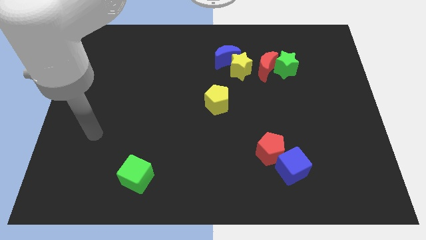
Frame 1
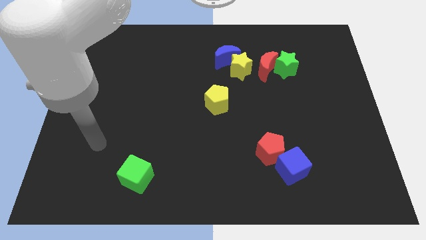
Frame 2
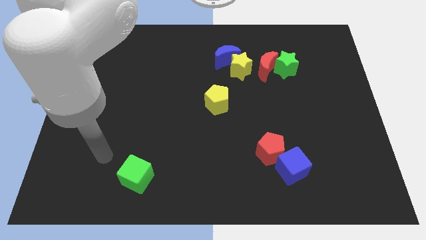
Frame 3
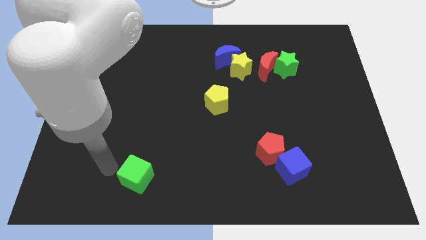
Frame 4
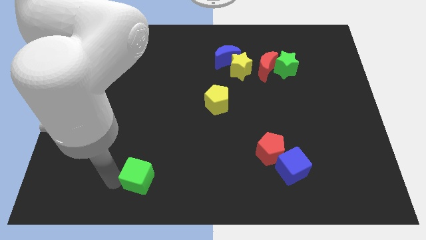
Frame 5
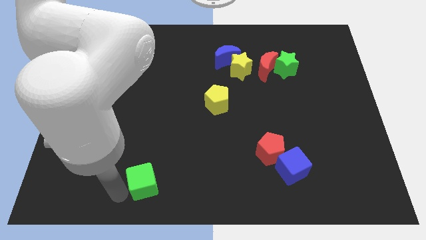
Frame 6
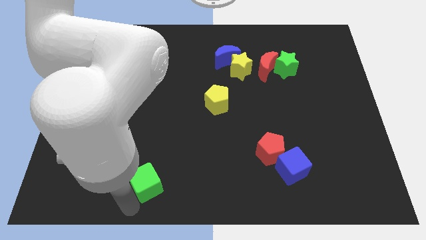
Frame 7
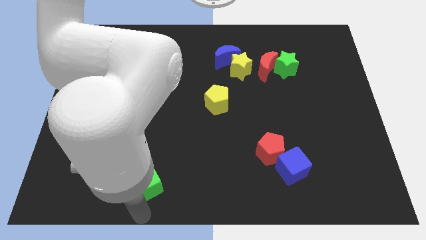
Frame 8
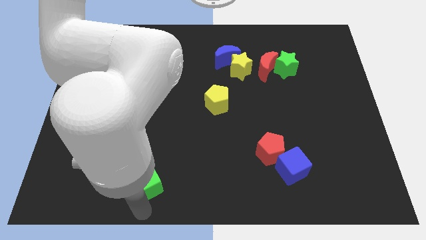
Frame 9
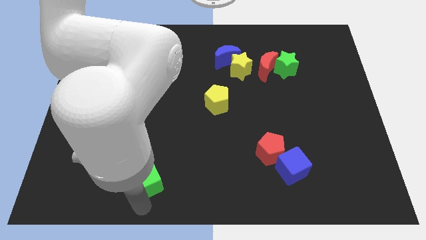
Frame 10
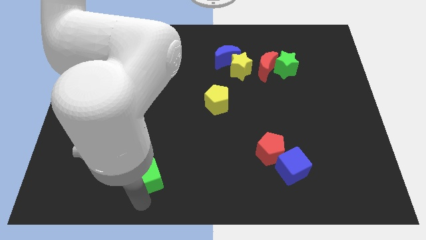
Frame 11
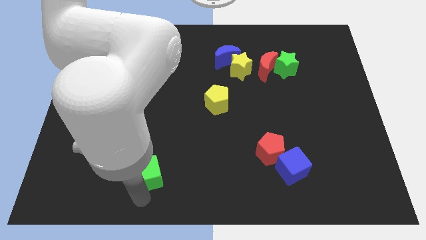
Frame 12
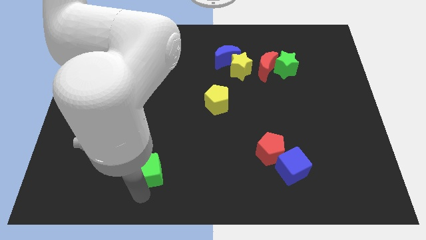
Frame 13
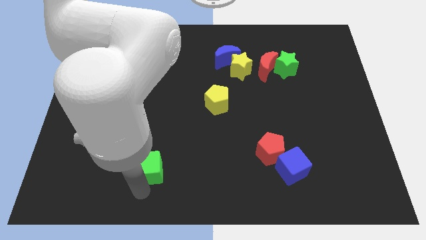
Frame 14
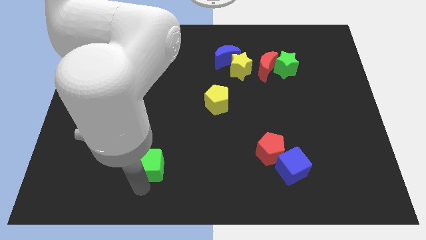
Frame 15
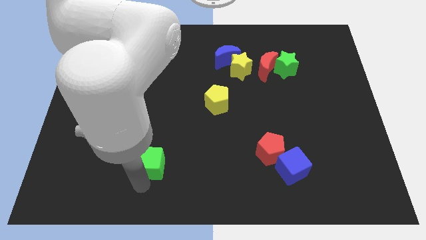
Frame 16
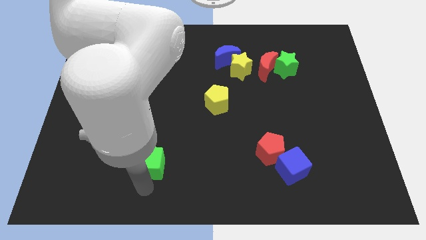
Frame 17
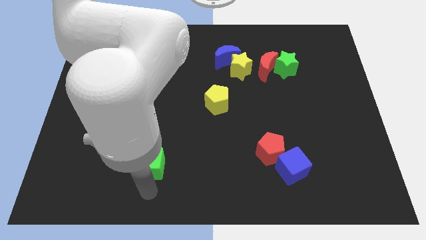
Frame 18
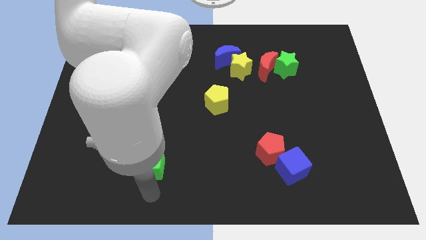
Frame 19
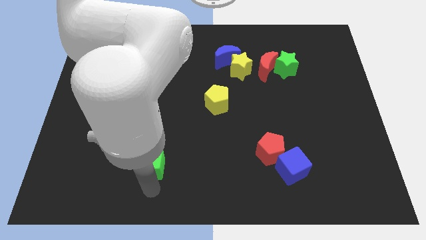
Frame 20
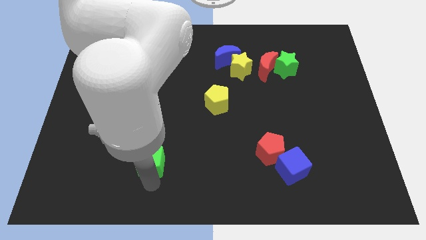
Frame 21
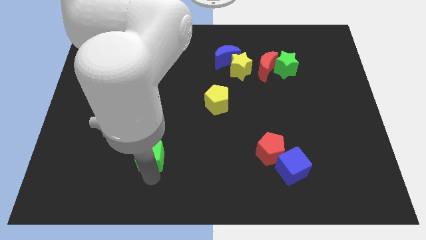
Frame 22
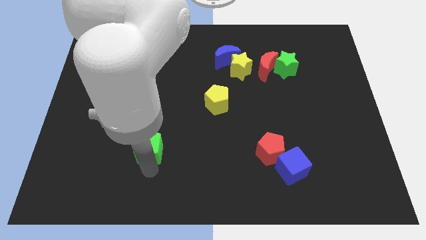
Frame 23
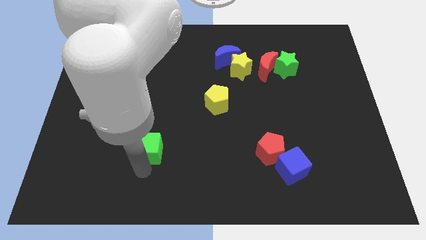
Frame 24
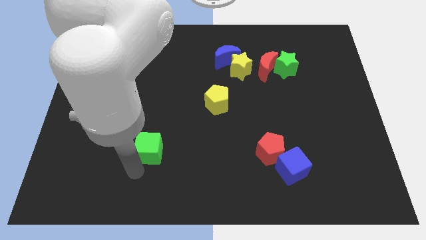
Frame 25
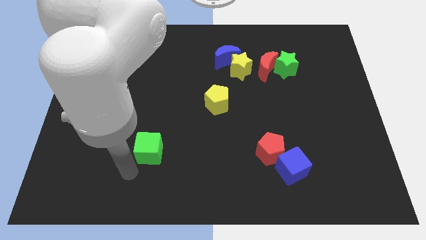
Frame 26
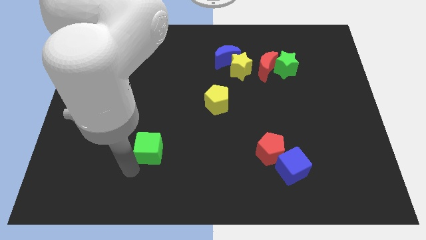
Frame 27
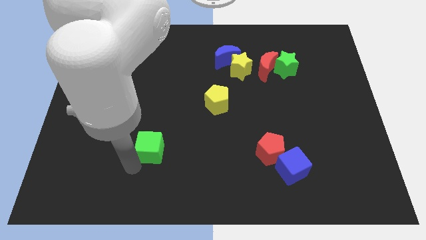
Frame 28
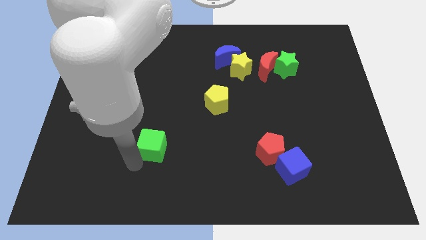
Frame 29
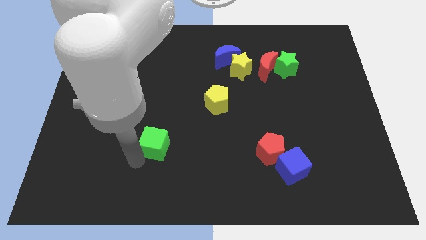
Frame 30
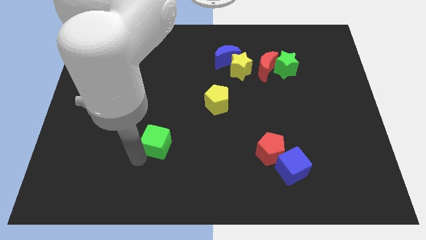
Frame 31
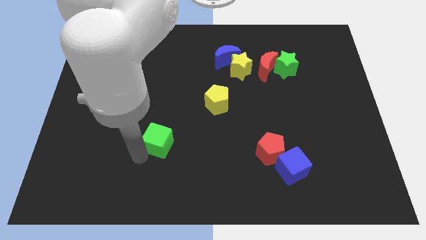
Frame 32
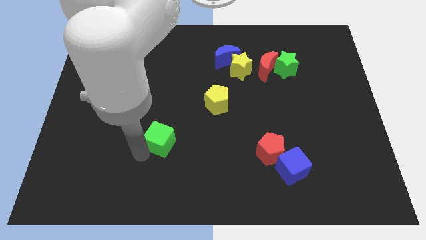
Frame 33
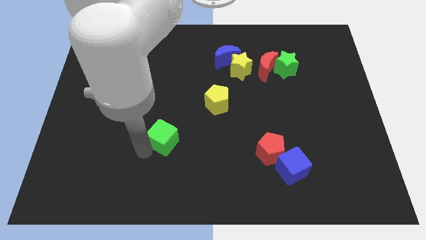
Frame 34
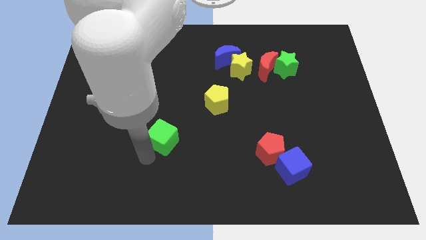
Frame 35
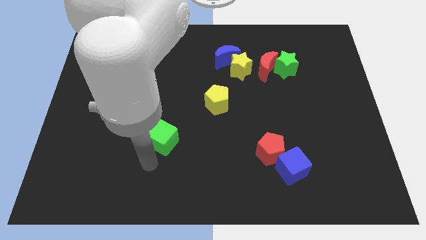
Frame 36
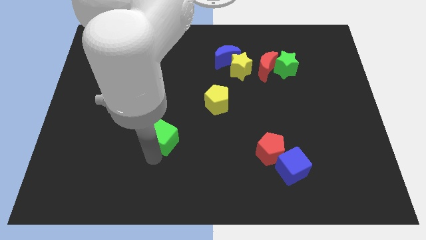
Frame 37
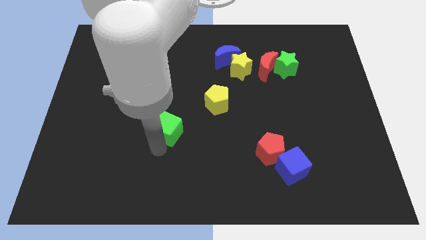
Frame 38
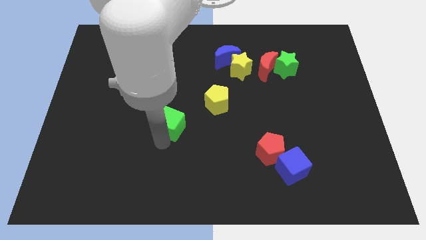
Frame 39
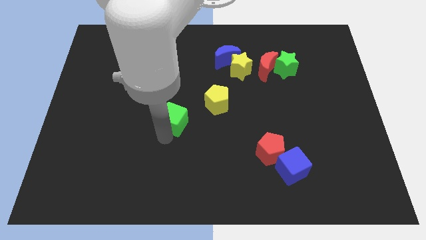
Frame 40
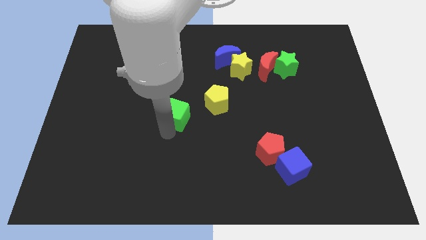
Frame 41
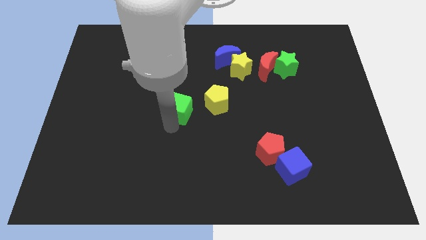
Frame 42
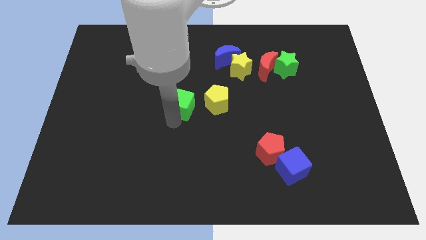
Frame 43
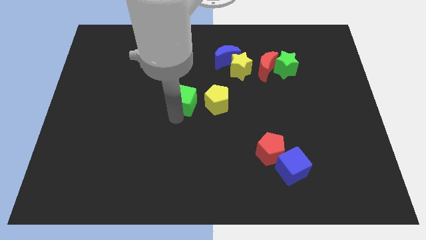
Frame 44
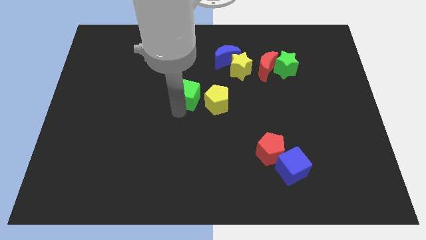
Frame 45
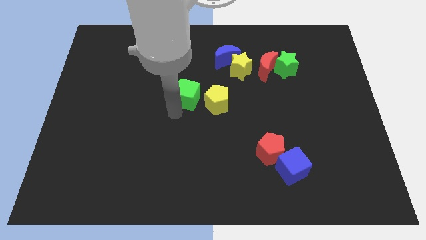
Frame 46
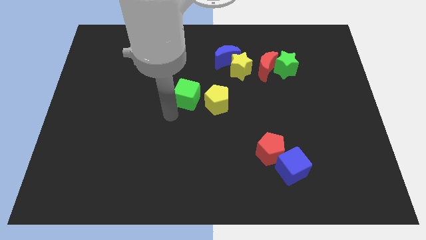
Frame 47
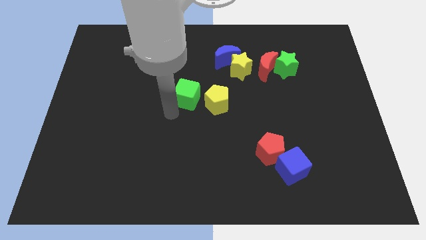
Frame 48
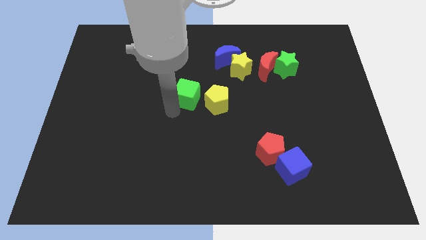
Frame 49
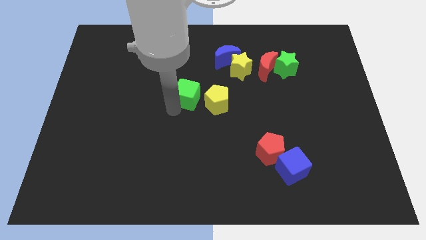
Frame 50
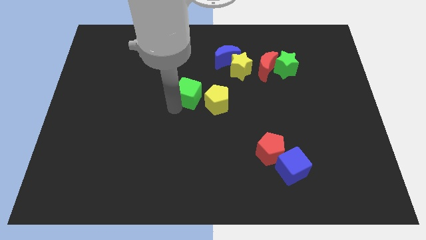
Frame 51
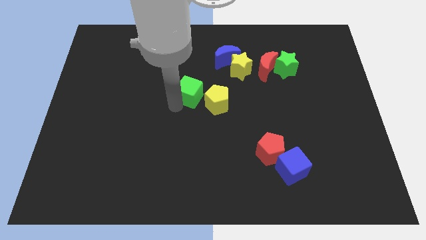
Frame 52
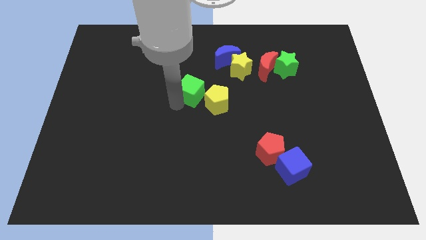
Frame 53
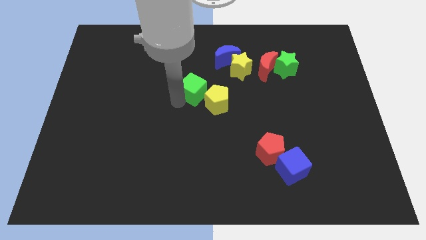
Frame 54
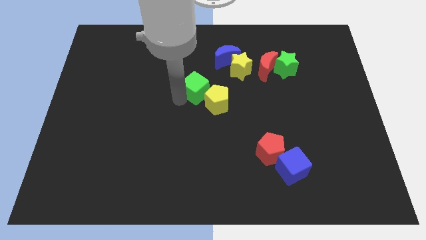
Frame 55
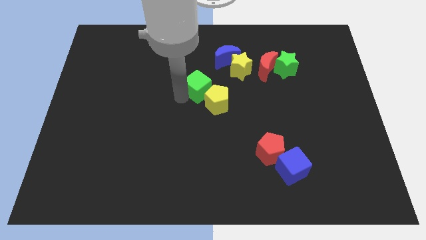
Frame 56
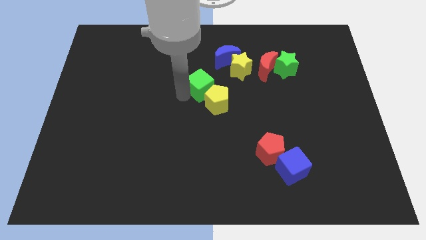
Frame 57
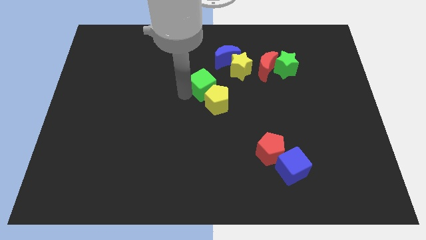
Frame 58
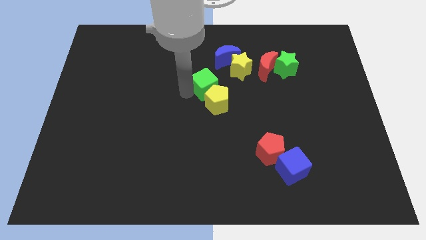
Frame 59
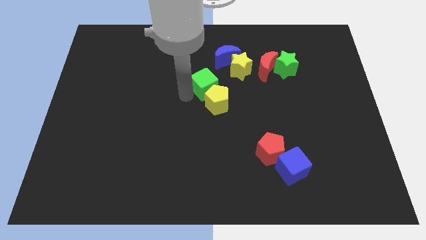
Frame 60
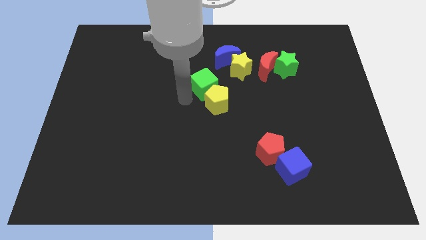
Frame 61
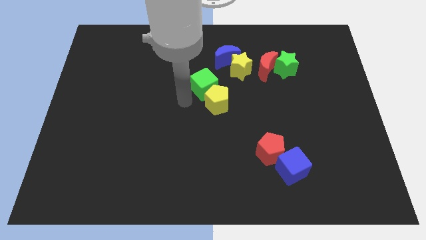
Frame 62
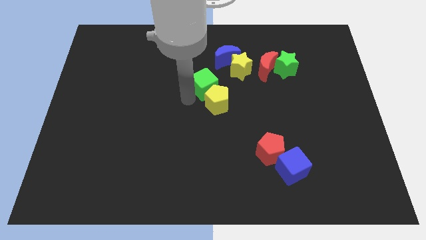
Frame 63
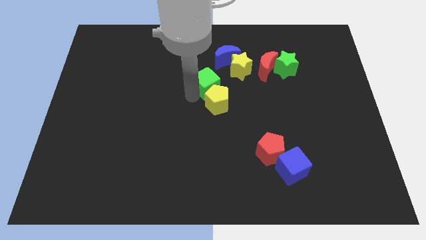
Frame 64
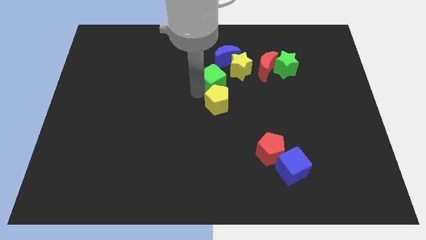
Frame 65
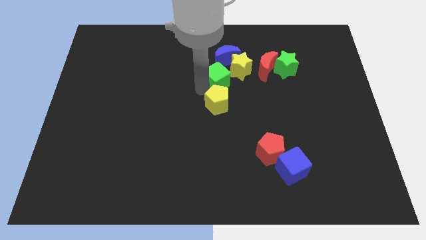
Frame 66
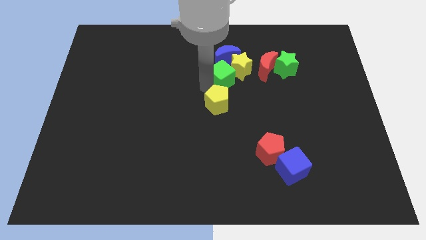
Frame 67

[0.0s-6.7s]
move the green cube towards the yellow star

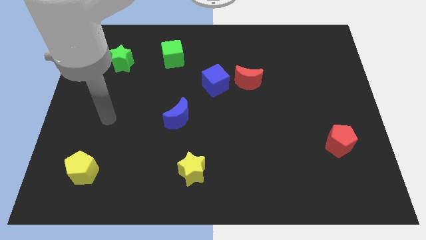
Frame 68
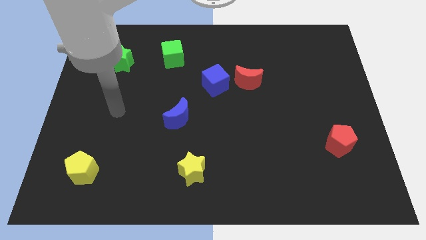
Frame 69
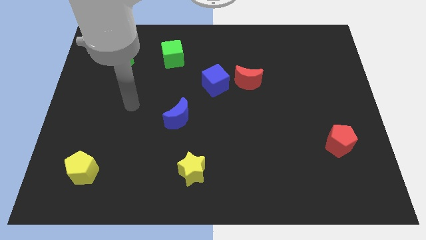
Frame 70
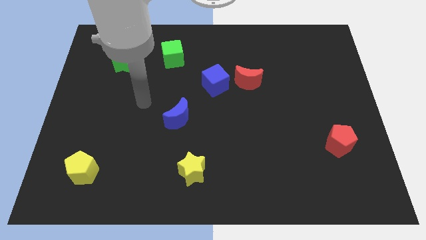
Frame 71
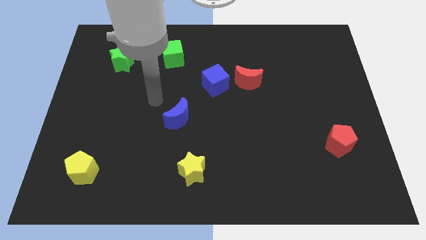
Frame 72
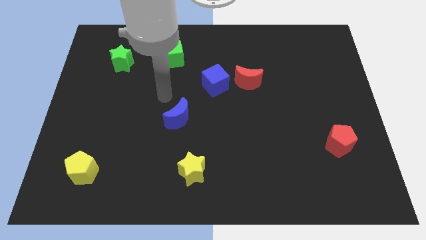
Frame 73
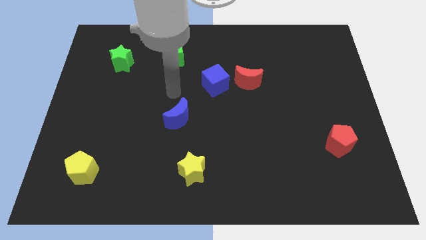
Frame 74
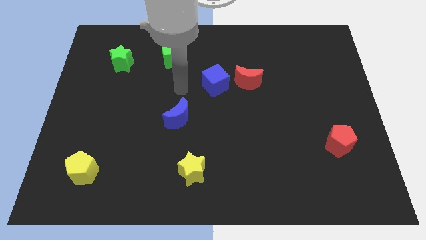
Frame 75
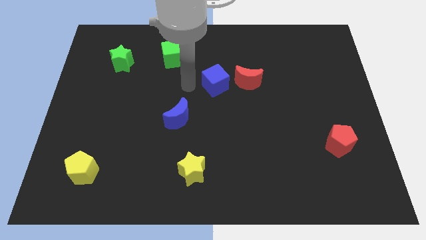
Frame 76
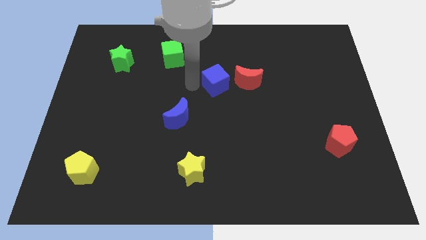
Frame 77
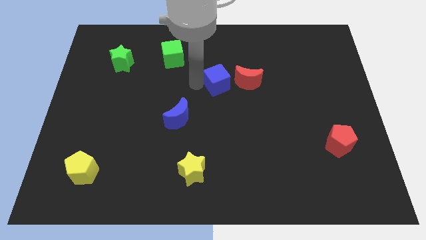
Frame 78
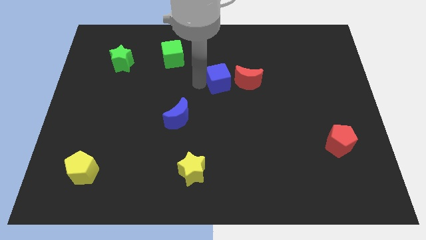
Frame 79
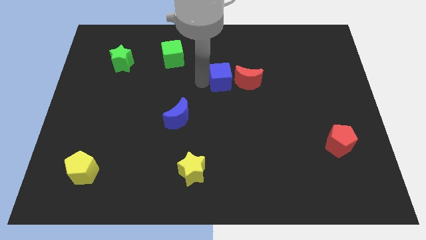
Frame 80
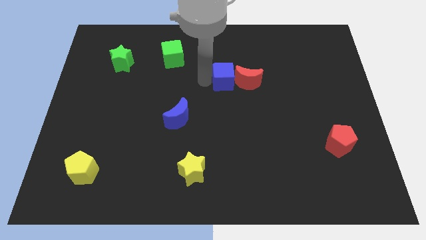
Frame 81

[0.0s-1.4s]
put the blue cube close to the red moon

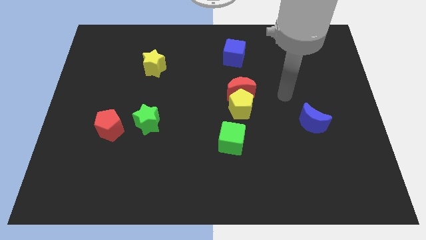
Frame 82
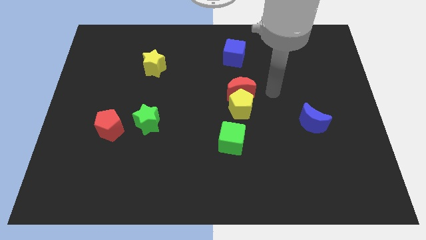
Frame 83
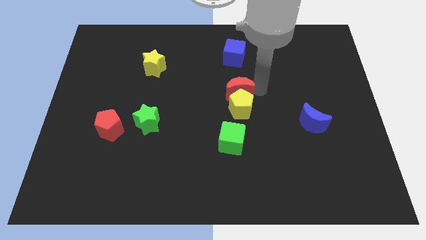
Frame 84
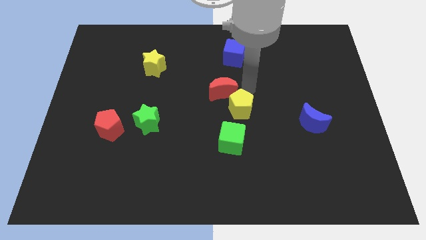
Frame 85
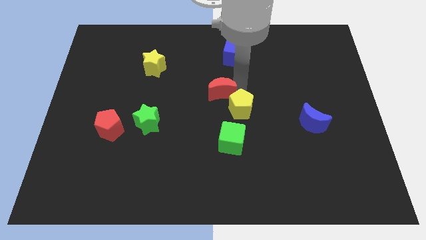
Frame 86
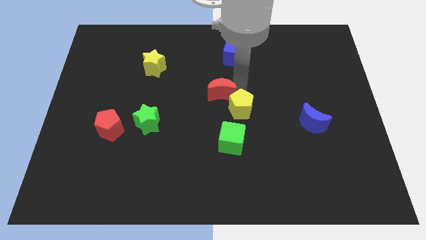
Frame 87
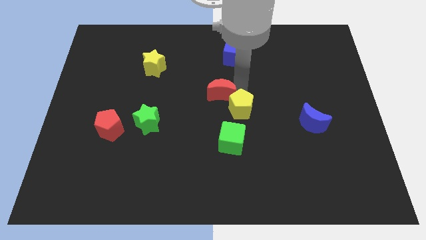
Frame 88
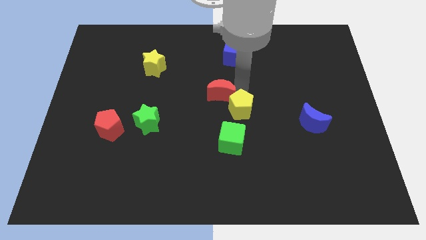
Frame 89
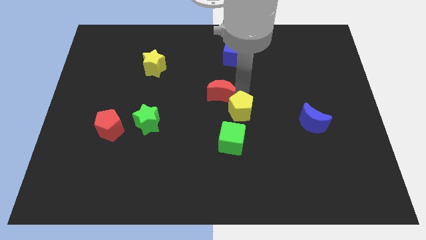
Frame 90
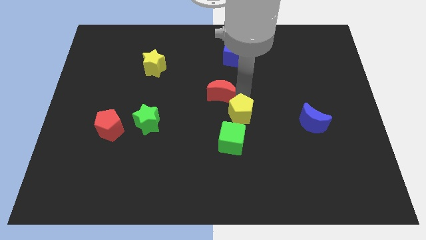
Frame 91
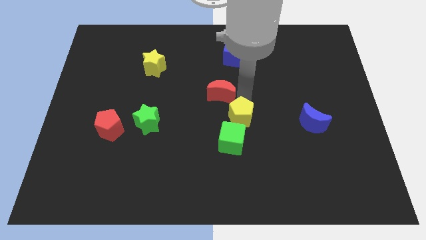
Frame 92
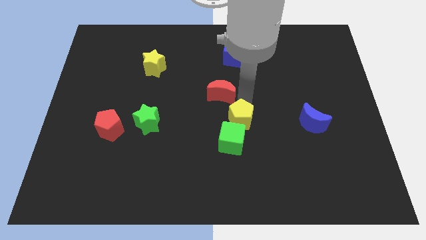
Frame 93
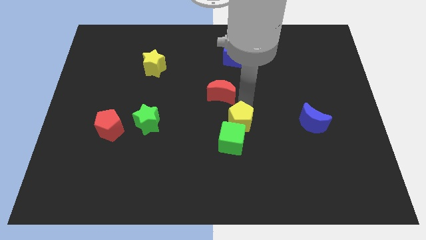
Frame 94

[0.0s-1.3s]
move the yellow pentagon to the green cube
